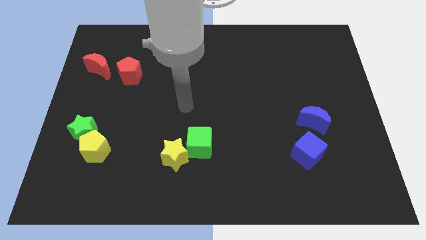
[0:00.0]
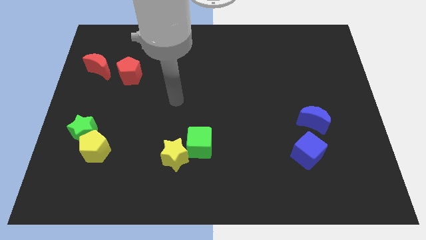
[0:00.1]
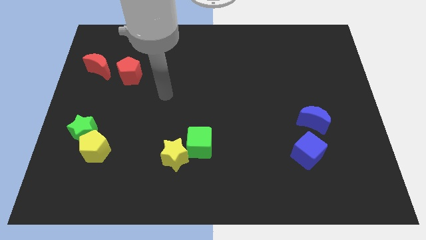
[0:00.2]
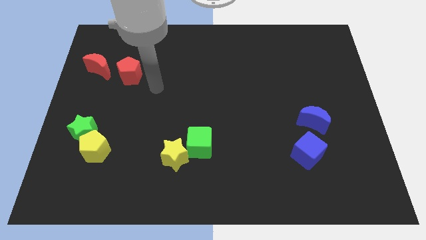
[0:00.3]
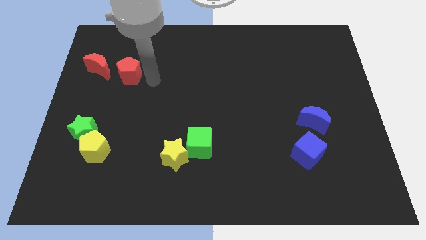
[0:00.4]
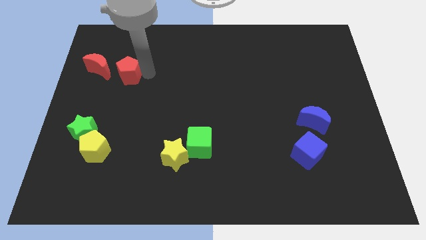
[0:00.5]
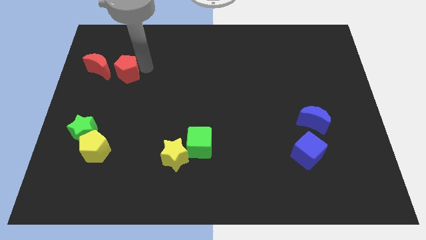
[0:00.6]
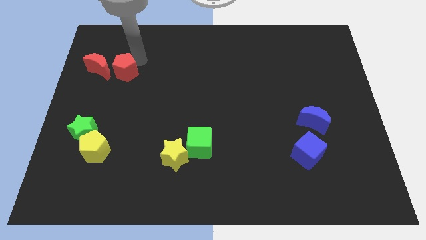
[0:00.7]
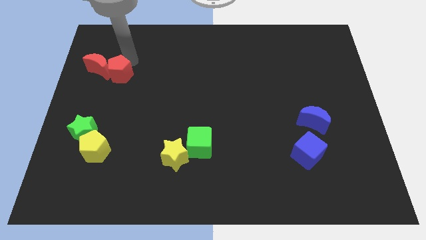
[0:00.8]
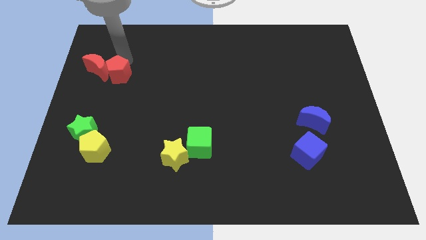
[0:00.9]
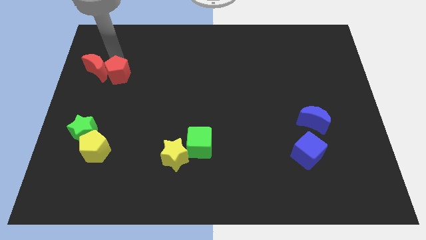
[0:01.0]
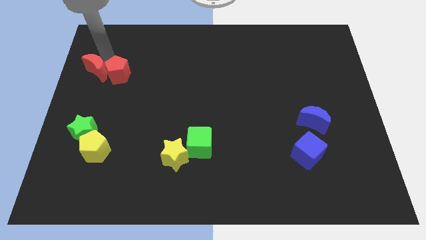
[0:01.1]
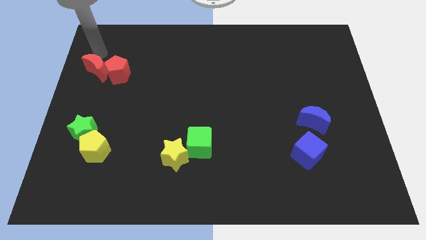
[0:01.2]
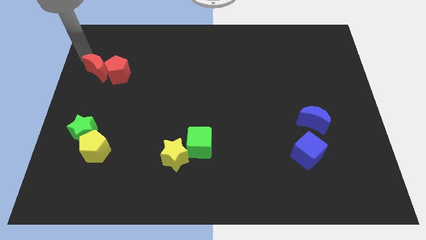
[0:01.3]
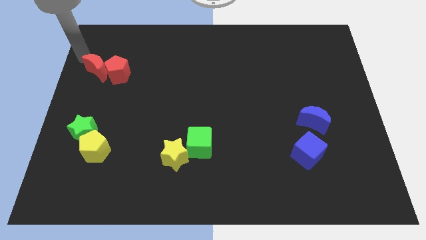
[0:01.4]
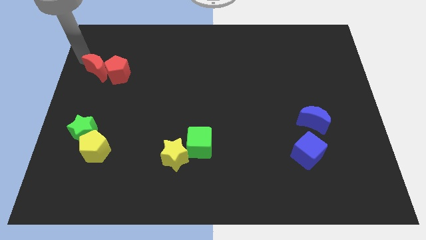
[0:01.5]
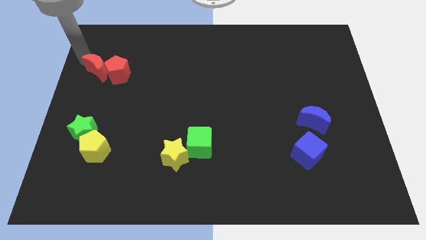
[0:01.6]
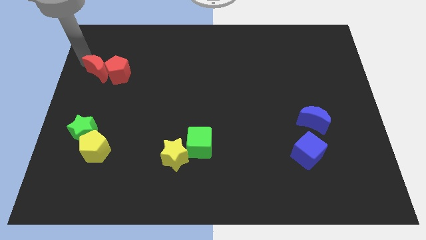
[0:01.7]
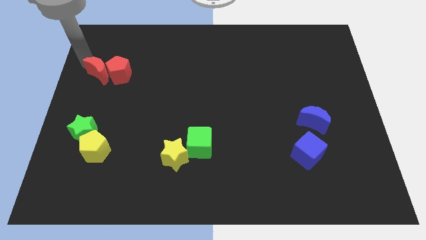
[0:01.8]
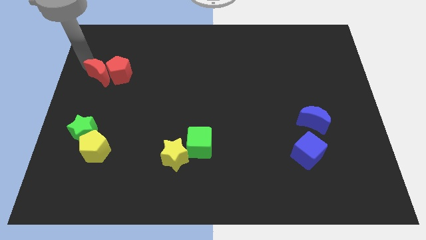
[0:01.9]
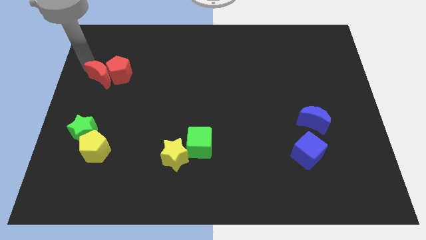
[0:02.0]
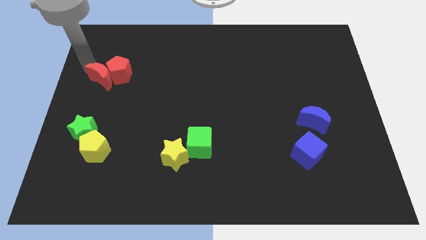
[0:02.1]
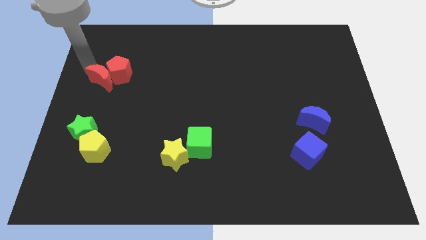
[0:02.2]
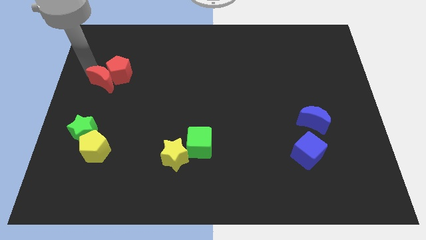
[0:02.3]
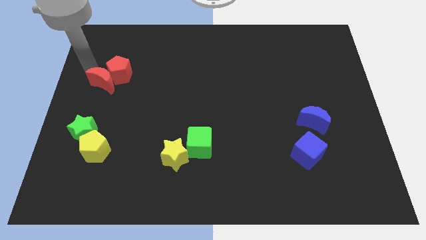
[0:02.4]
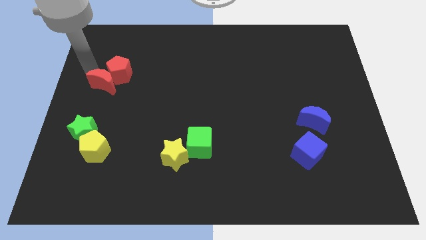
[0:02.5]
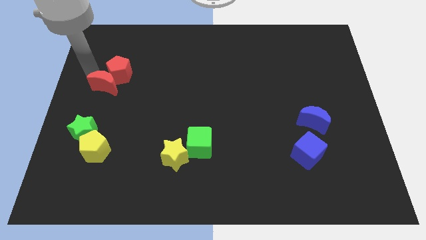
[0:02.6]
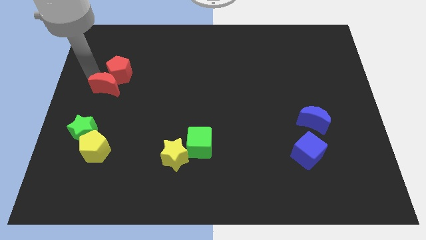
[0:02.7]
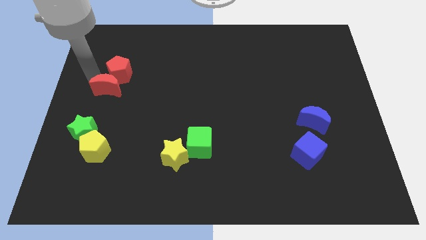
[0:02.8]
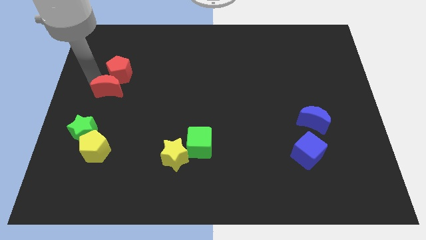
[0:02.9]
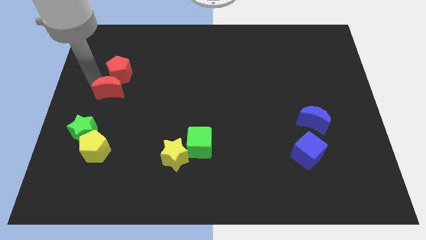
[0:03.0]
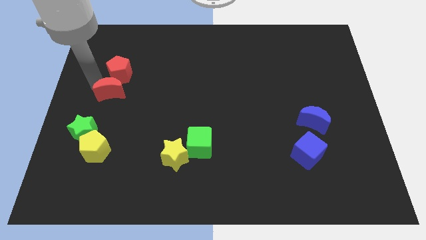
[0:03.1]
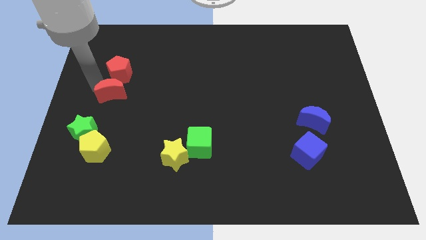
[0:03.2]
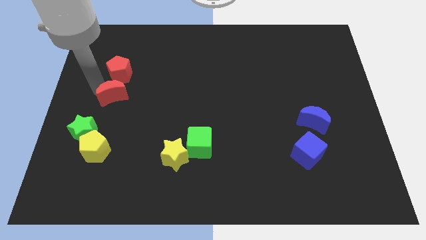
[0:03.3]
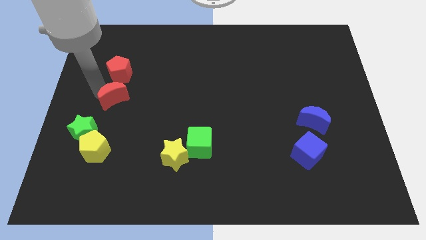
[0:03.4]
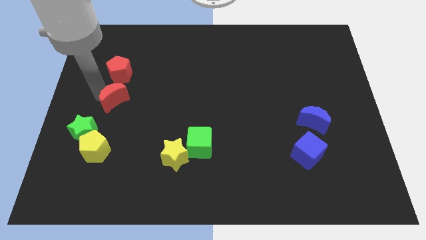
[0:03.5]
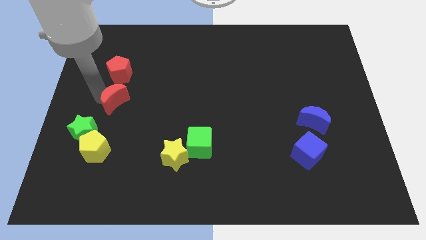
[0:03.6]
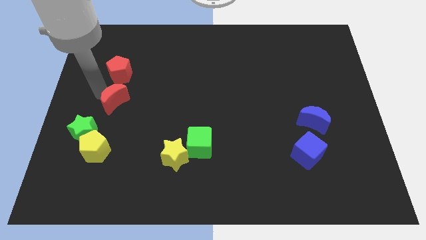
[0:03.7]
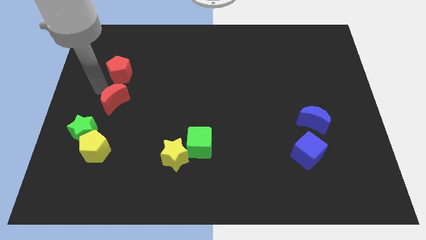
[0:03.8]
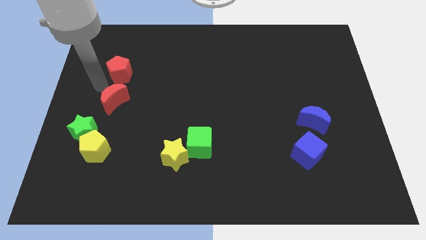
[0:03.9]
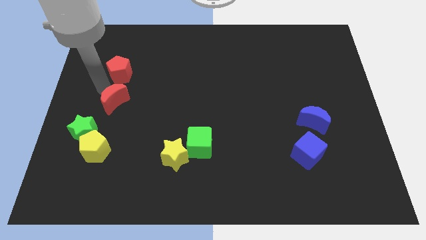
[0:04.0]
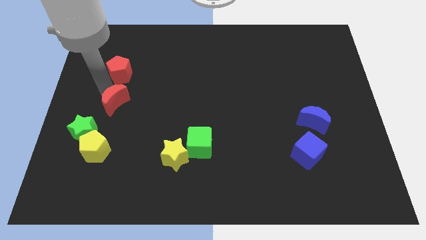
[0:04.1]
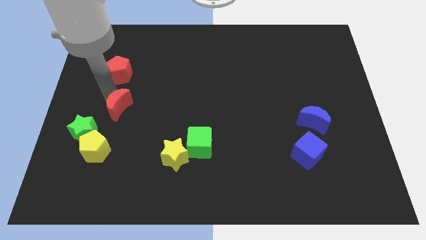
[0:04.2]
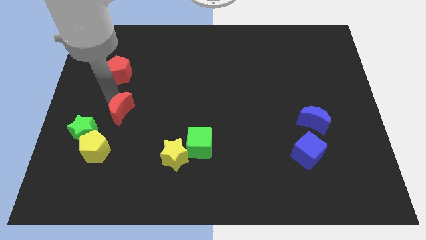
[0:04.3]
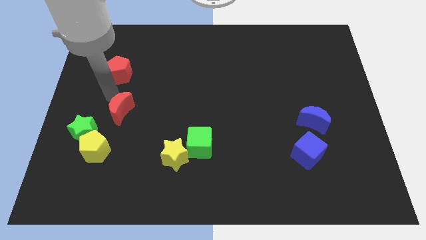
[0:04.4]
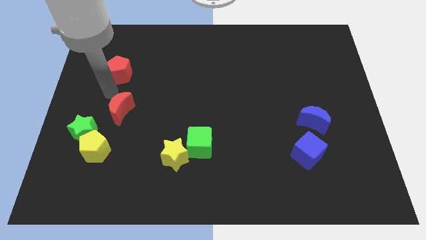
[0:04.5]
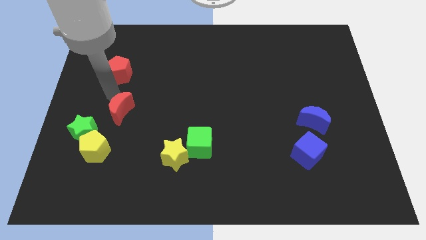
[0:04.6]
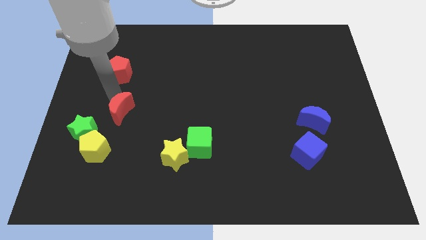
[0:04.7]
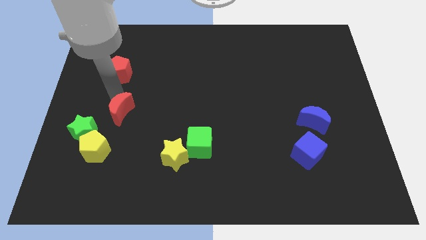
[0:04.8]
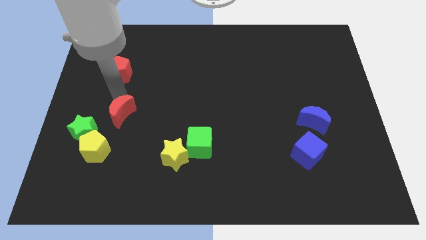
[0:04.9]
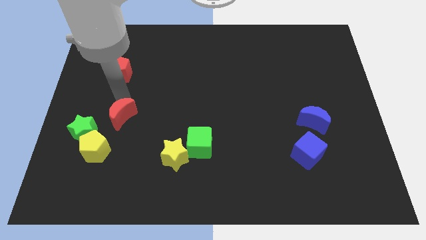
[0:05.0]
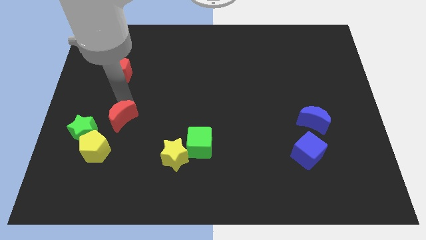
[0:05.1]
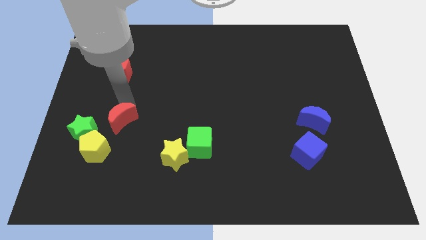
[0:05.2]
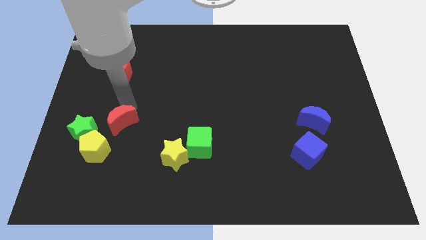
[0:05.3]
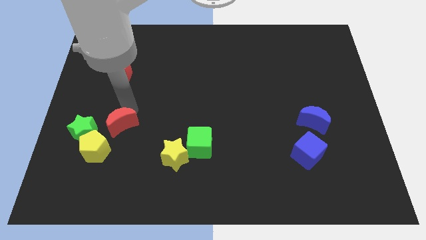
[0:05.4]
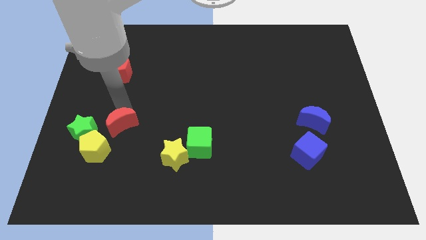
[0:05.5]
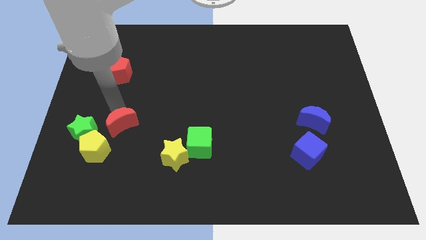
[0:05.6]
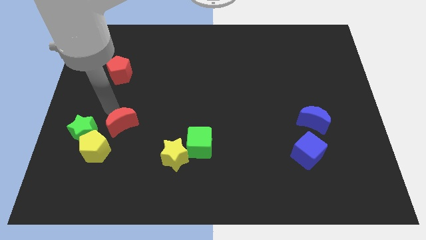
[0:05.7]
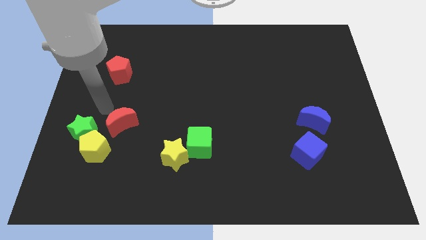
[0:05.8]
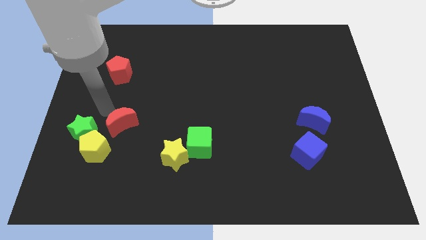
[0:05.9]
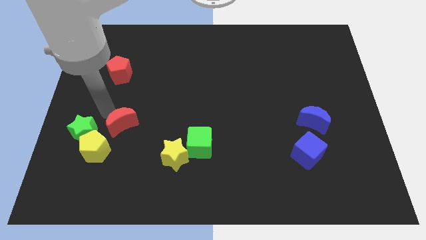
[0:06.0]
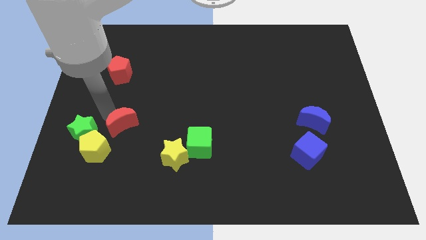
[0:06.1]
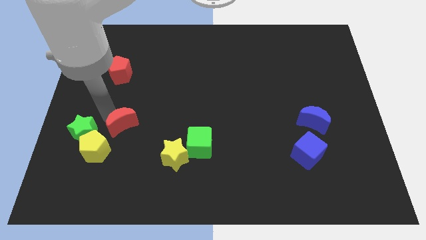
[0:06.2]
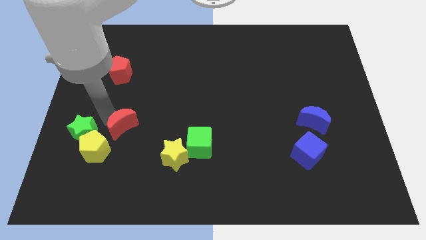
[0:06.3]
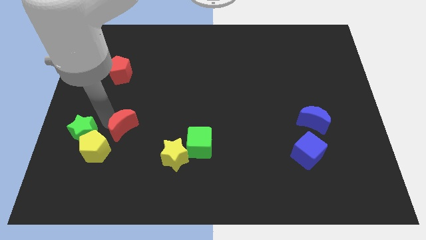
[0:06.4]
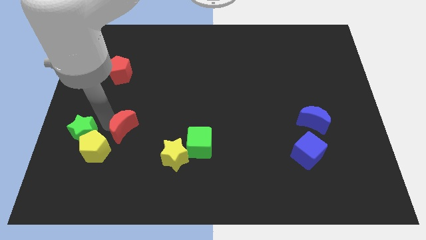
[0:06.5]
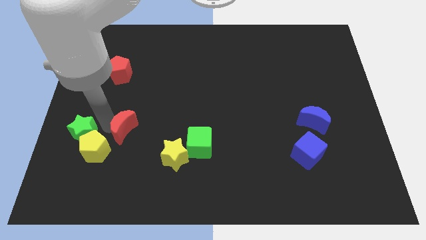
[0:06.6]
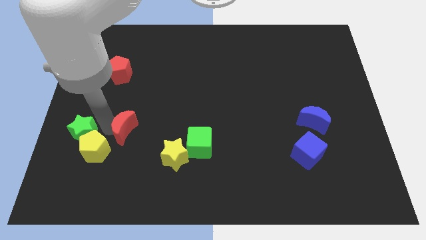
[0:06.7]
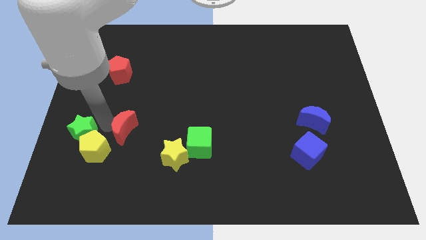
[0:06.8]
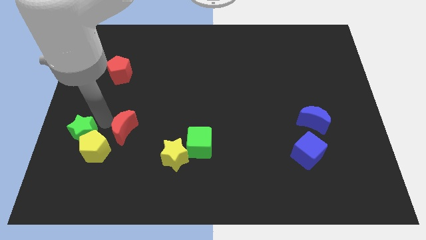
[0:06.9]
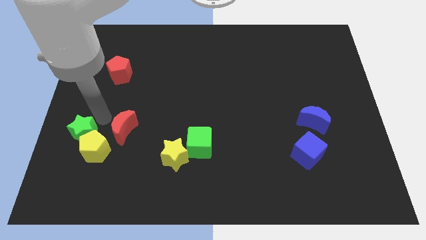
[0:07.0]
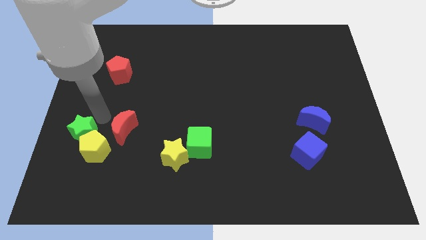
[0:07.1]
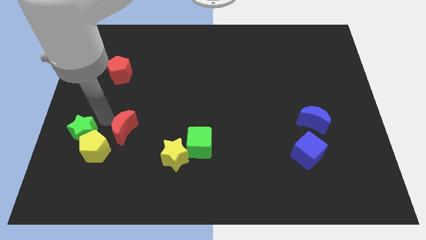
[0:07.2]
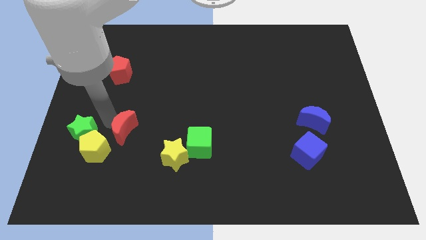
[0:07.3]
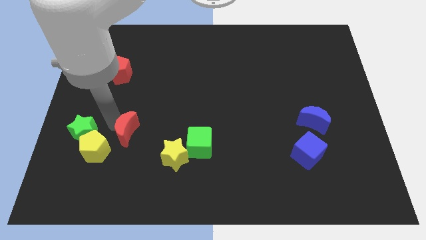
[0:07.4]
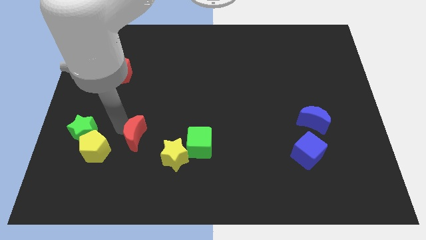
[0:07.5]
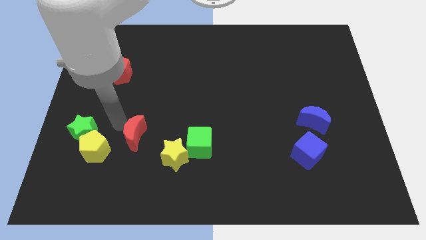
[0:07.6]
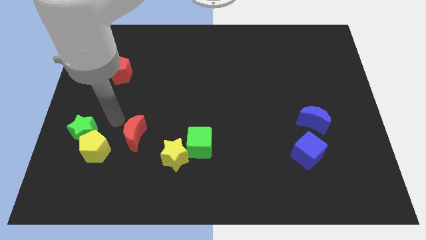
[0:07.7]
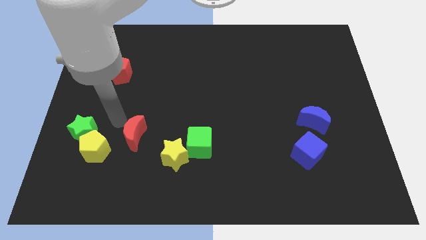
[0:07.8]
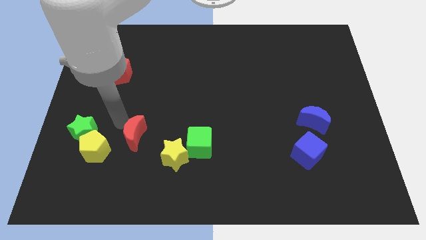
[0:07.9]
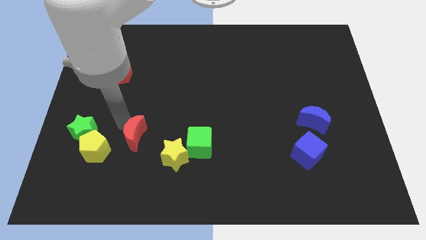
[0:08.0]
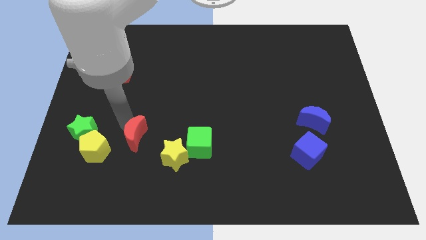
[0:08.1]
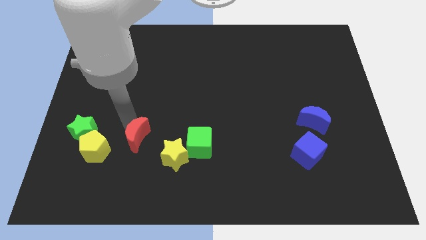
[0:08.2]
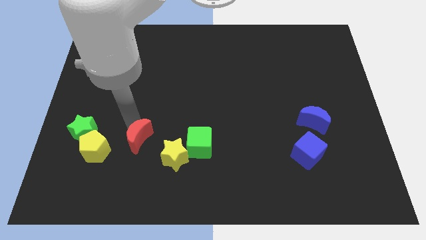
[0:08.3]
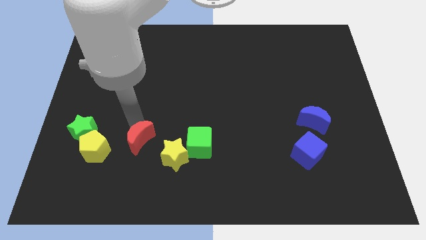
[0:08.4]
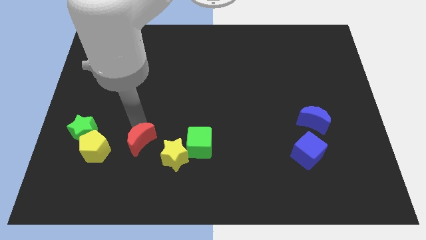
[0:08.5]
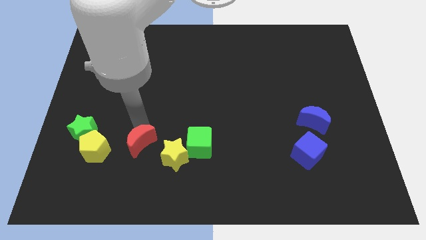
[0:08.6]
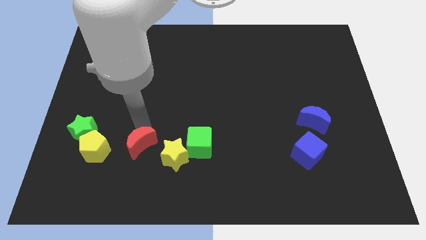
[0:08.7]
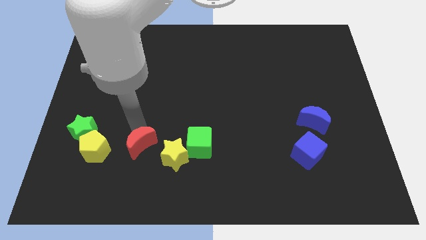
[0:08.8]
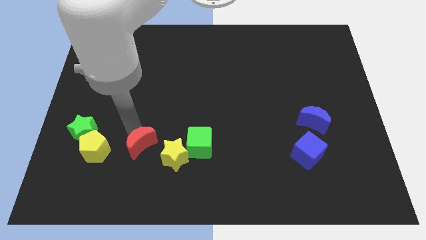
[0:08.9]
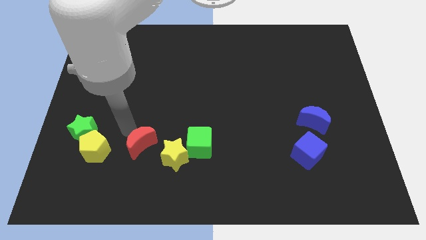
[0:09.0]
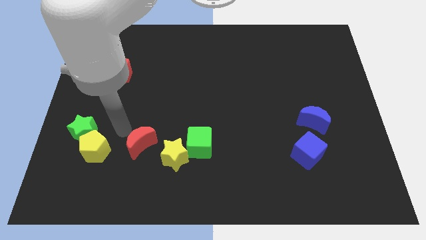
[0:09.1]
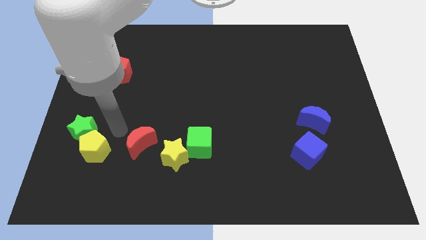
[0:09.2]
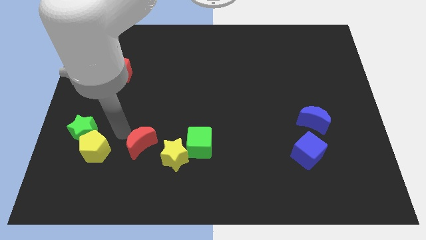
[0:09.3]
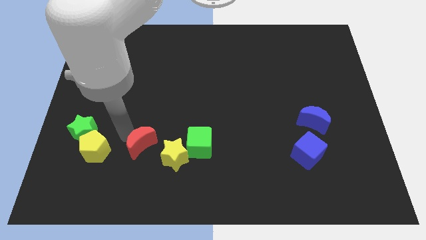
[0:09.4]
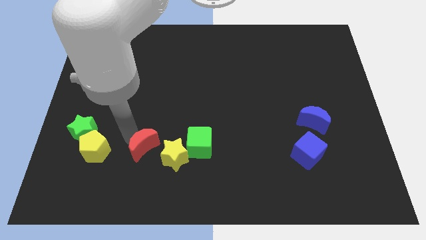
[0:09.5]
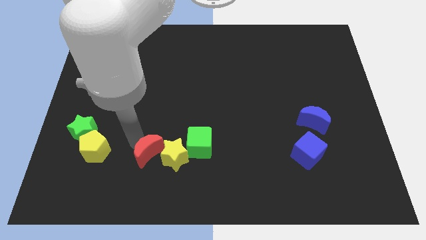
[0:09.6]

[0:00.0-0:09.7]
move the red moon next to the yellow star
